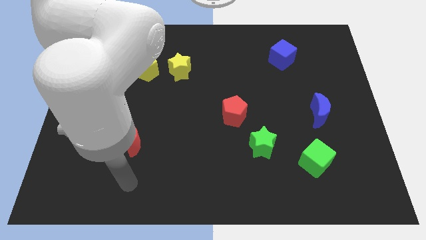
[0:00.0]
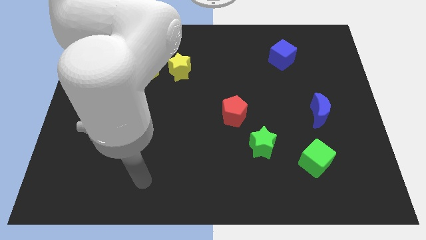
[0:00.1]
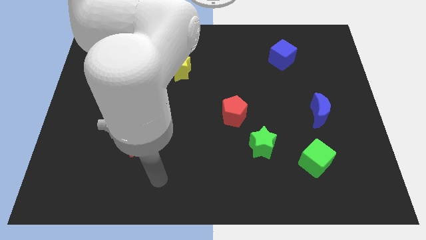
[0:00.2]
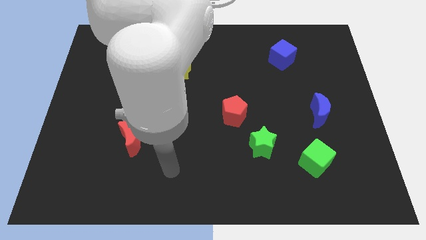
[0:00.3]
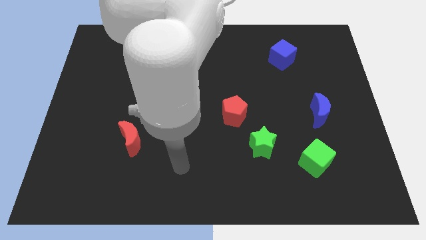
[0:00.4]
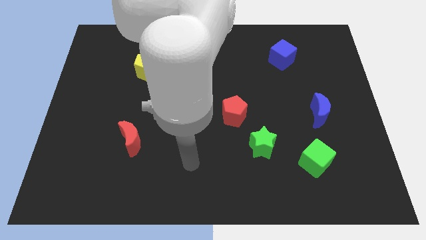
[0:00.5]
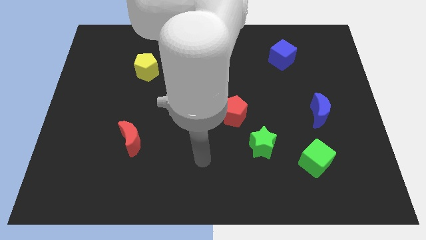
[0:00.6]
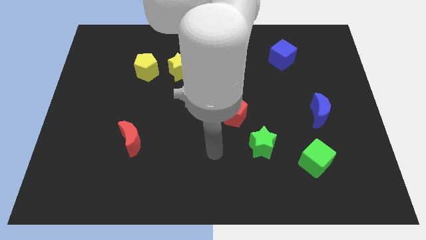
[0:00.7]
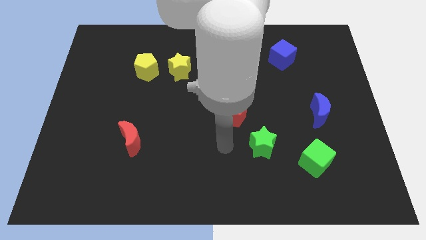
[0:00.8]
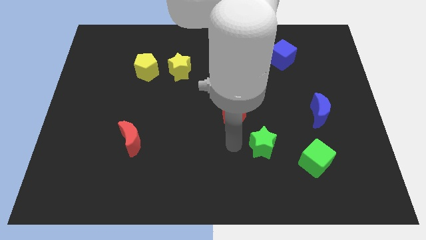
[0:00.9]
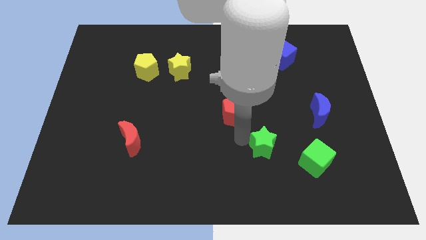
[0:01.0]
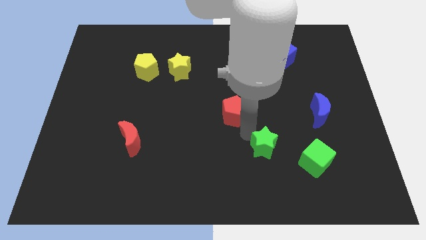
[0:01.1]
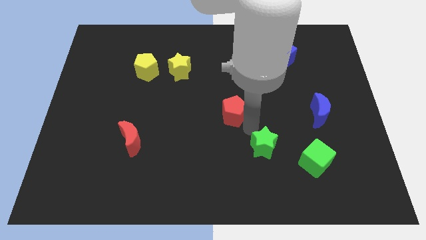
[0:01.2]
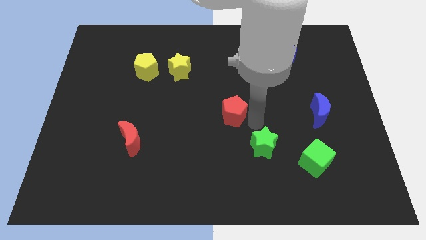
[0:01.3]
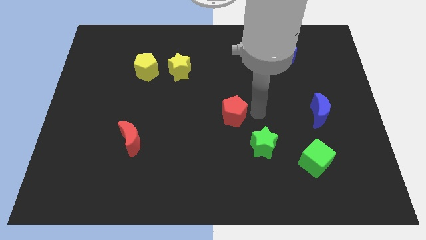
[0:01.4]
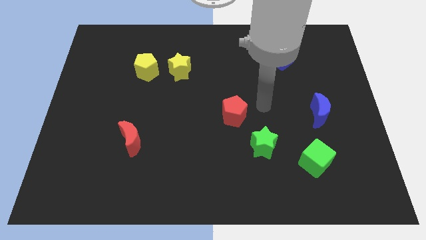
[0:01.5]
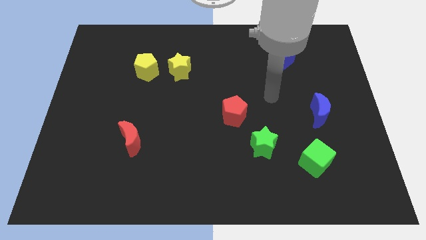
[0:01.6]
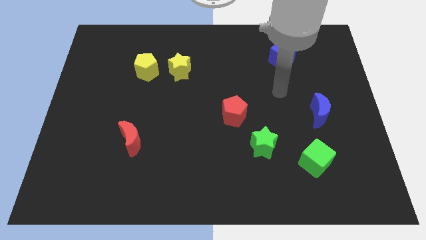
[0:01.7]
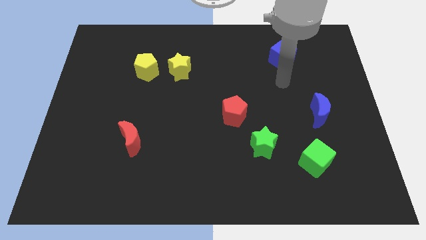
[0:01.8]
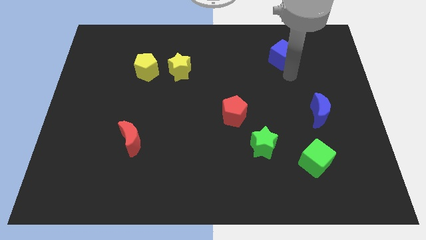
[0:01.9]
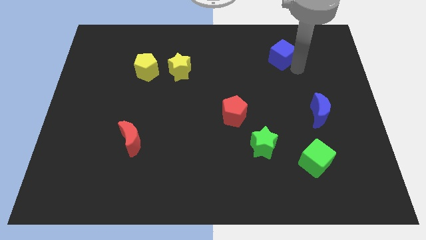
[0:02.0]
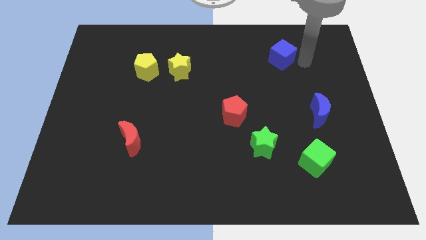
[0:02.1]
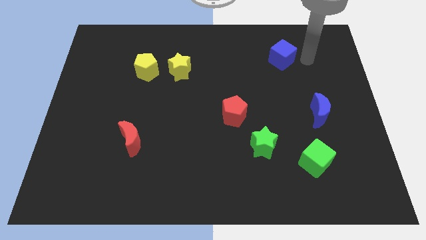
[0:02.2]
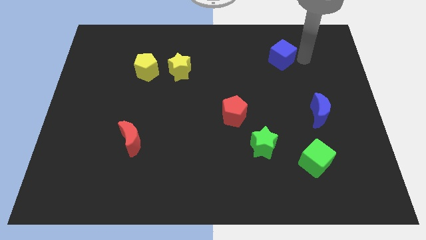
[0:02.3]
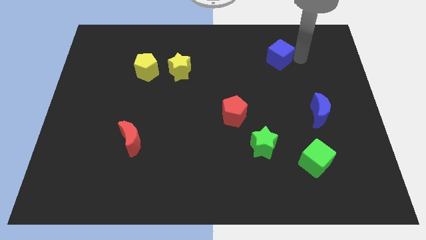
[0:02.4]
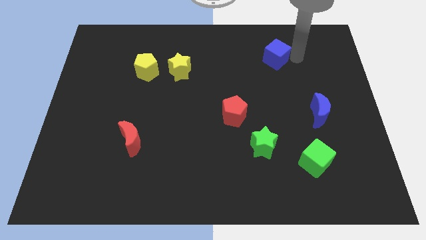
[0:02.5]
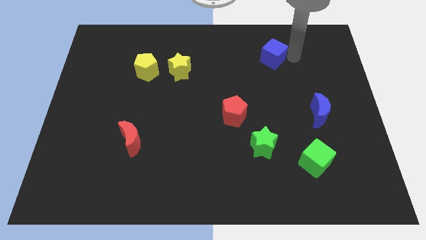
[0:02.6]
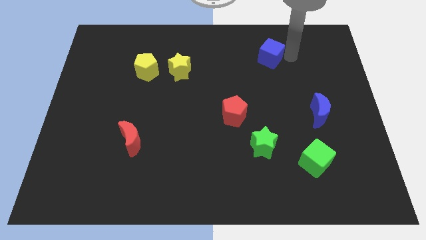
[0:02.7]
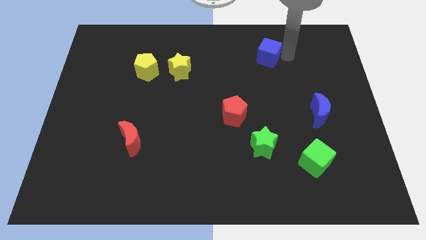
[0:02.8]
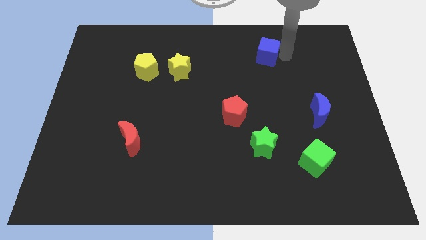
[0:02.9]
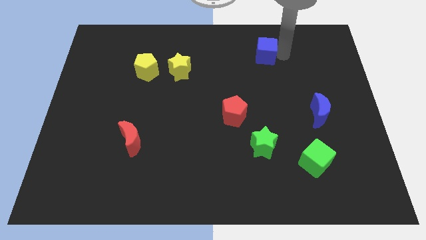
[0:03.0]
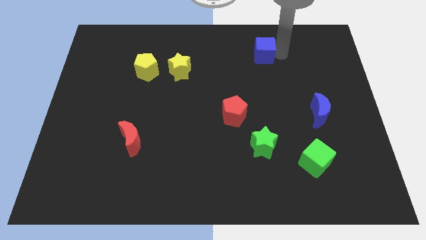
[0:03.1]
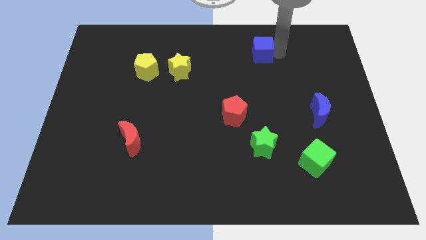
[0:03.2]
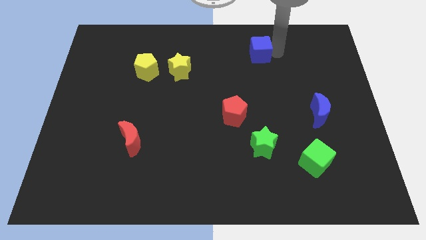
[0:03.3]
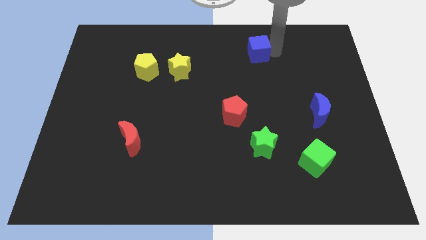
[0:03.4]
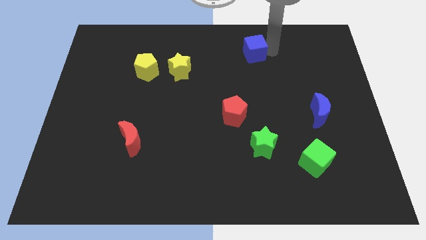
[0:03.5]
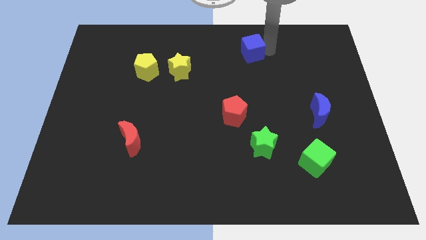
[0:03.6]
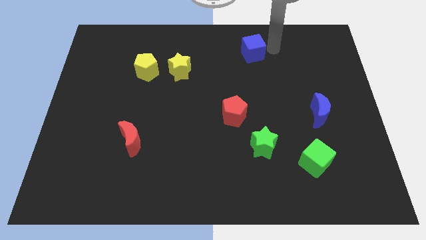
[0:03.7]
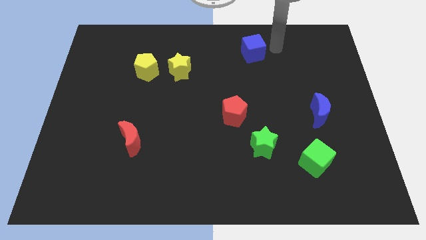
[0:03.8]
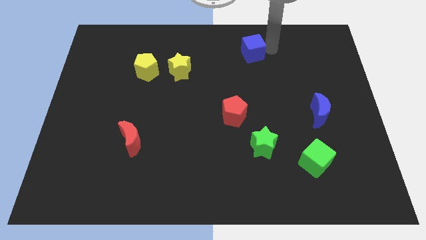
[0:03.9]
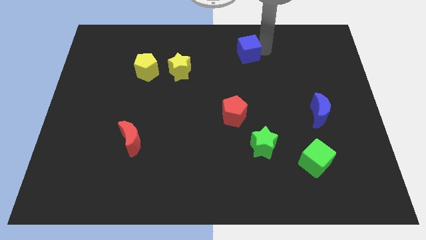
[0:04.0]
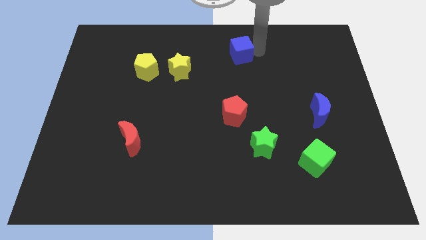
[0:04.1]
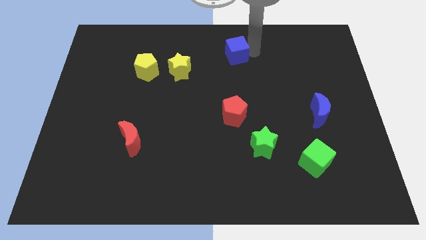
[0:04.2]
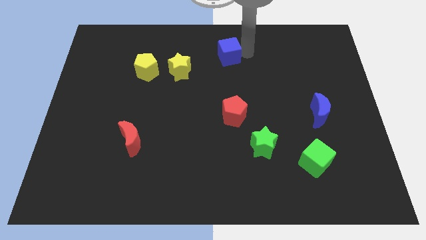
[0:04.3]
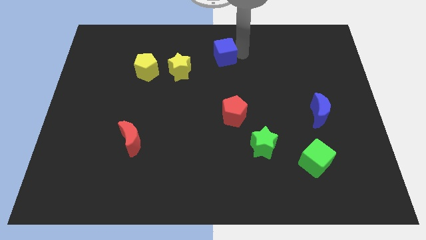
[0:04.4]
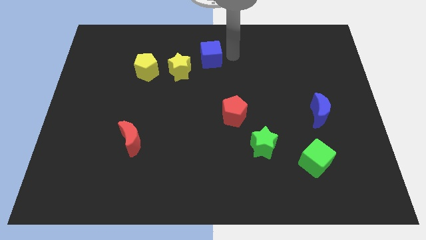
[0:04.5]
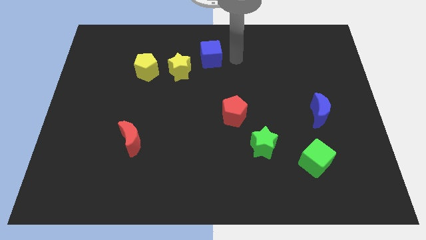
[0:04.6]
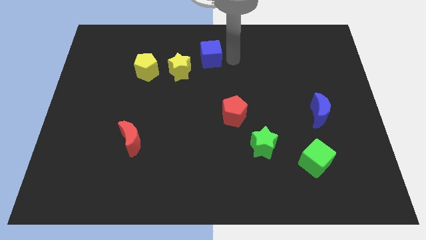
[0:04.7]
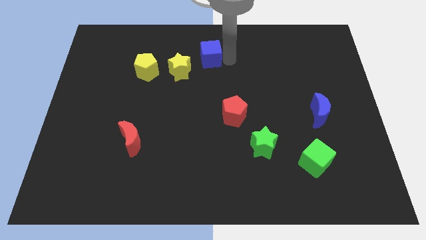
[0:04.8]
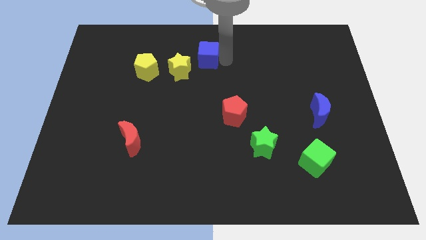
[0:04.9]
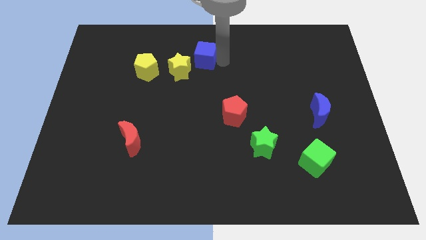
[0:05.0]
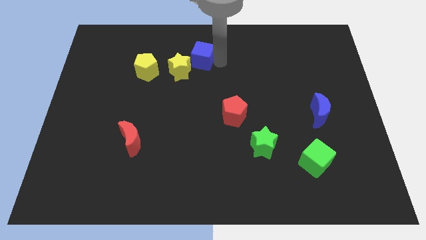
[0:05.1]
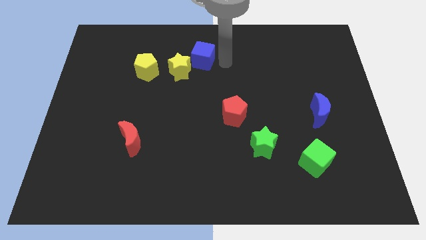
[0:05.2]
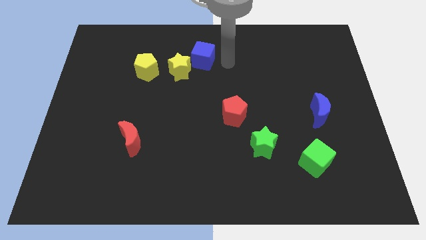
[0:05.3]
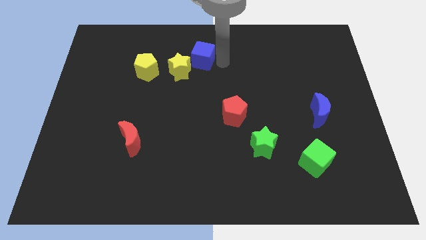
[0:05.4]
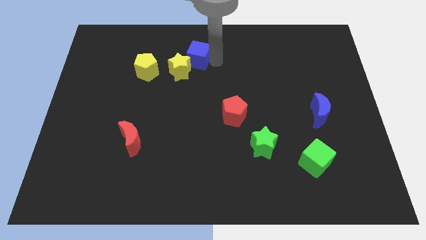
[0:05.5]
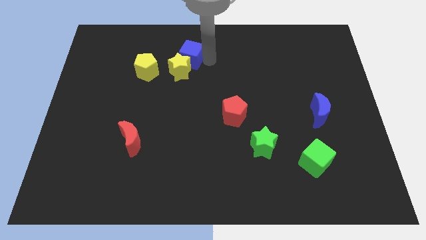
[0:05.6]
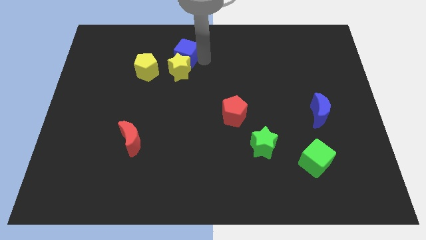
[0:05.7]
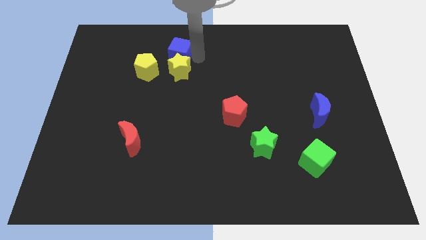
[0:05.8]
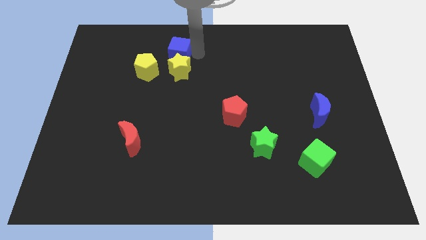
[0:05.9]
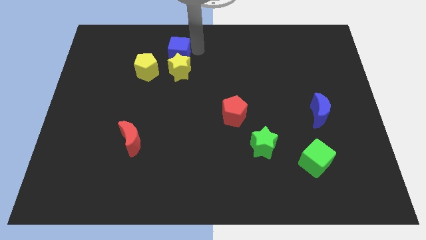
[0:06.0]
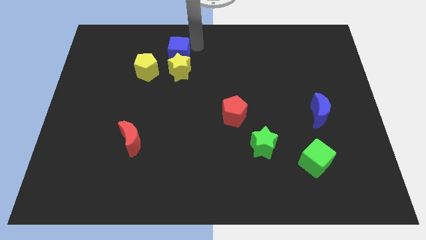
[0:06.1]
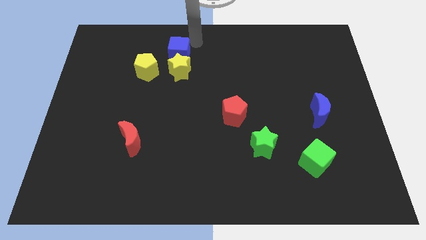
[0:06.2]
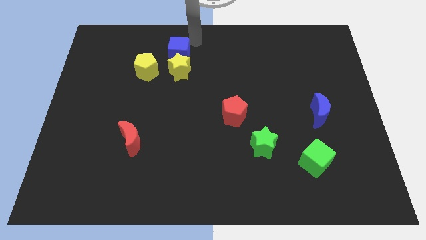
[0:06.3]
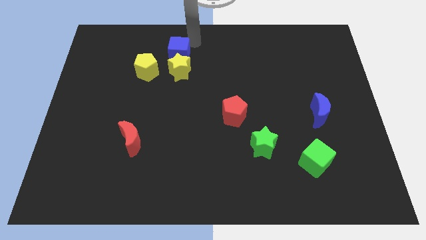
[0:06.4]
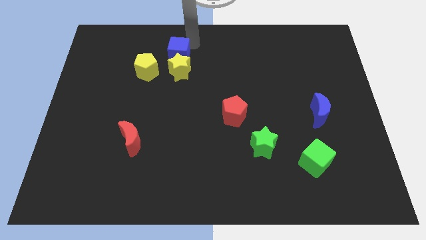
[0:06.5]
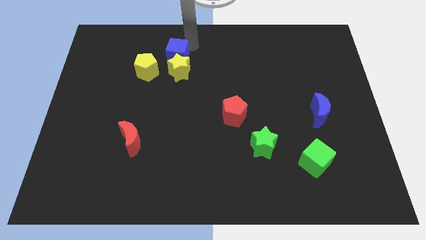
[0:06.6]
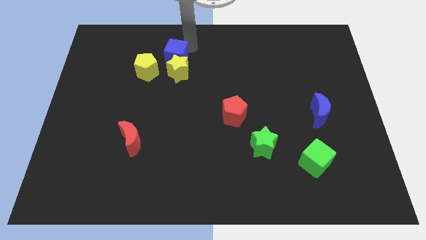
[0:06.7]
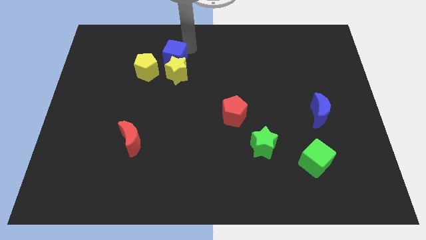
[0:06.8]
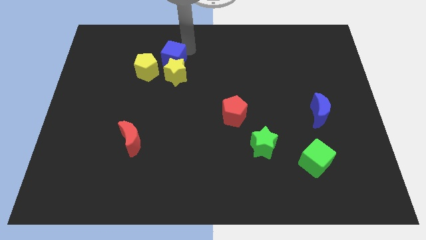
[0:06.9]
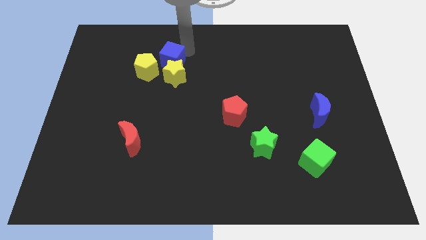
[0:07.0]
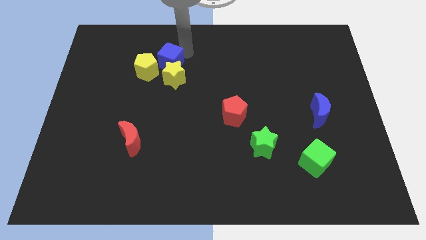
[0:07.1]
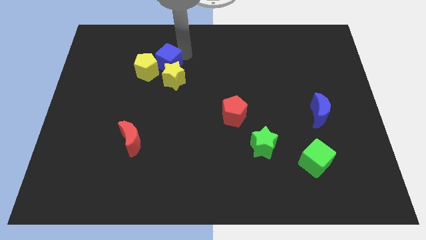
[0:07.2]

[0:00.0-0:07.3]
move the blue cube next to the yellow pentagon
